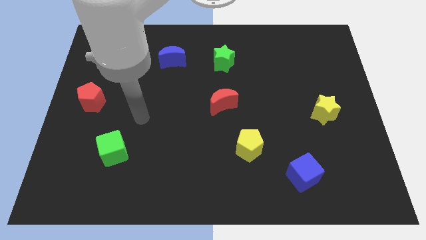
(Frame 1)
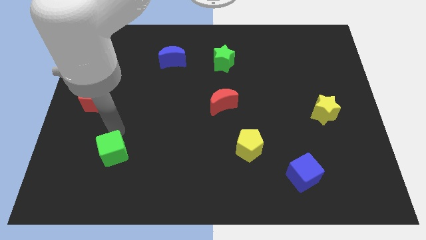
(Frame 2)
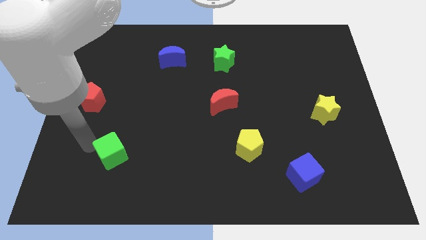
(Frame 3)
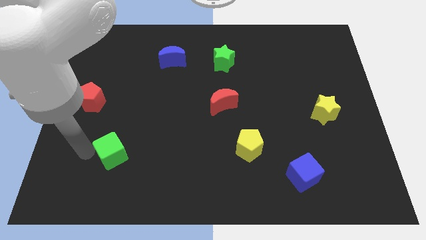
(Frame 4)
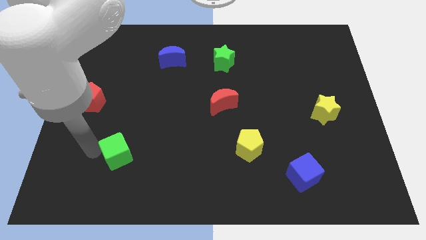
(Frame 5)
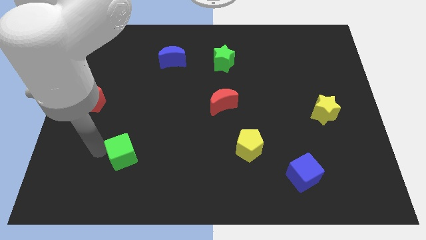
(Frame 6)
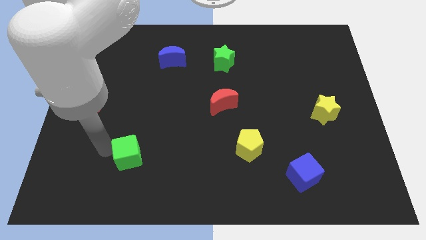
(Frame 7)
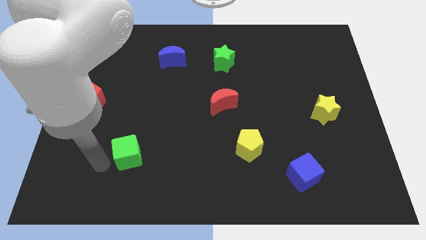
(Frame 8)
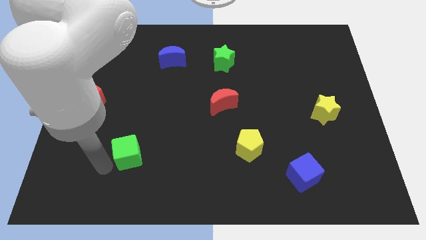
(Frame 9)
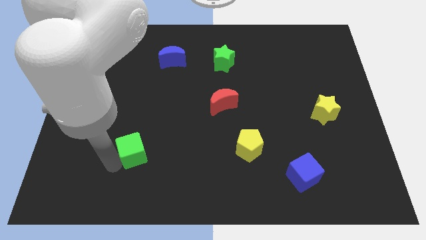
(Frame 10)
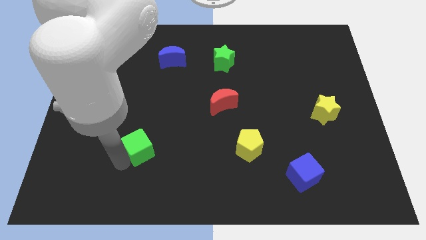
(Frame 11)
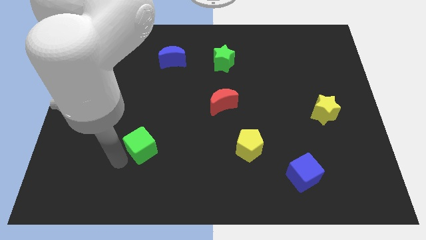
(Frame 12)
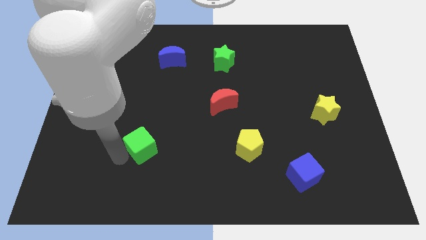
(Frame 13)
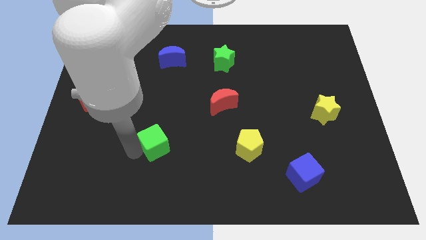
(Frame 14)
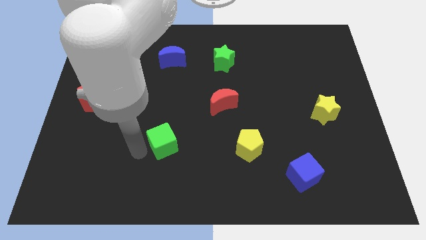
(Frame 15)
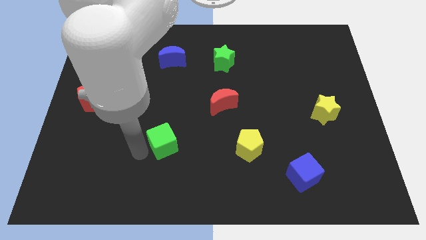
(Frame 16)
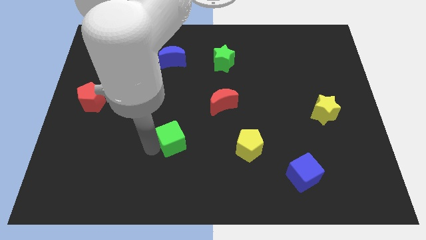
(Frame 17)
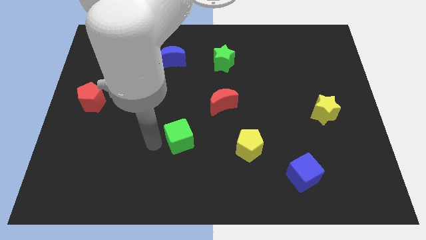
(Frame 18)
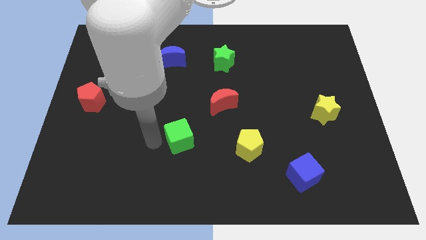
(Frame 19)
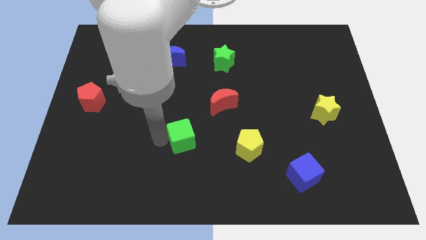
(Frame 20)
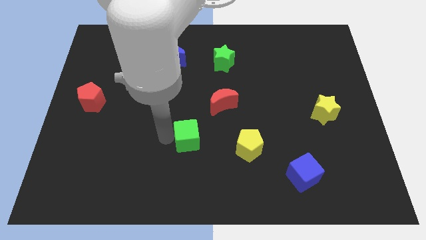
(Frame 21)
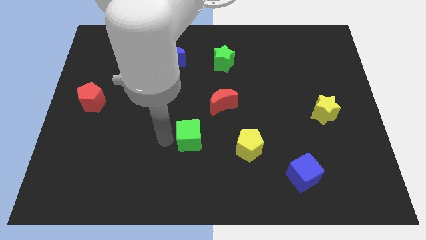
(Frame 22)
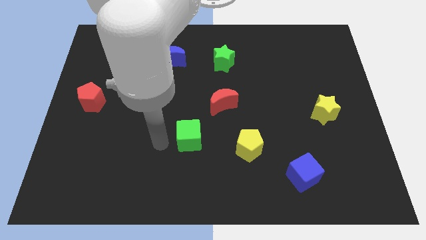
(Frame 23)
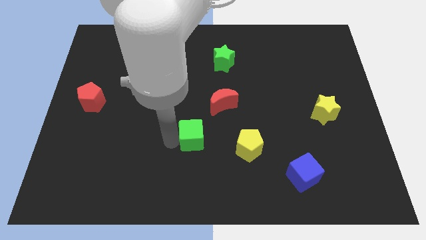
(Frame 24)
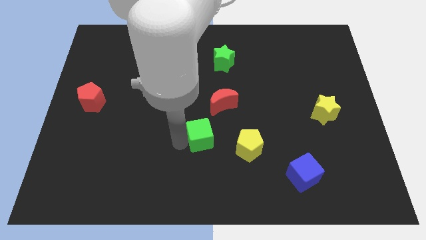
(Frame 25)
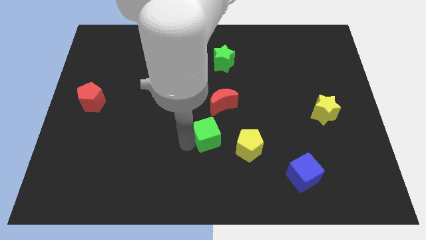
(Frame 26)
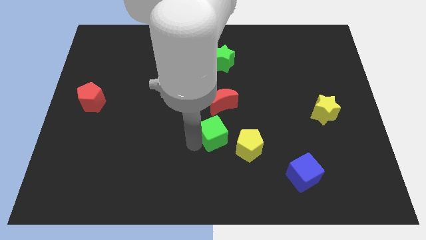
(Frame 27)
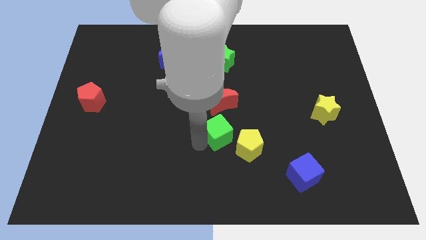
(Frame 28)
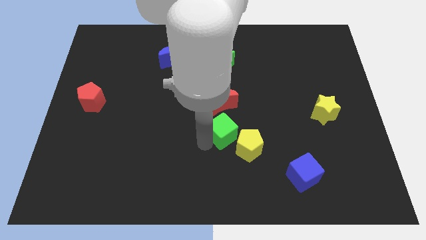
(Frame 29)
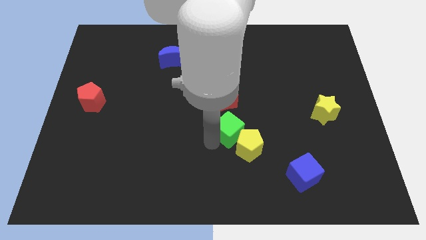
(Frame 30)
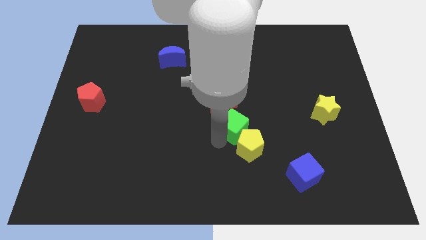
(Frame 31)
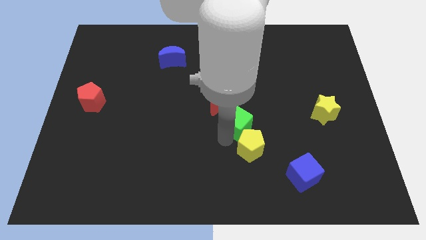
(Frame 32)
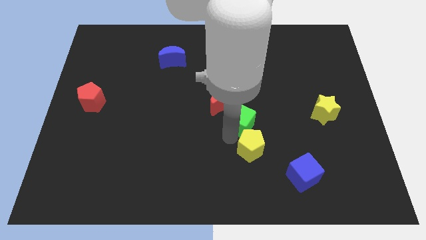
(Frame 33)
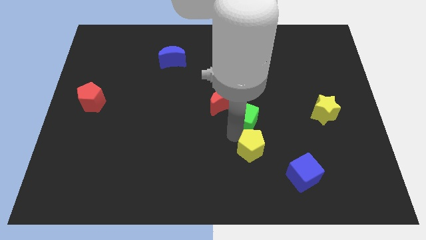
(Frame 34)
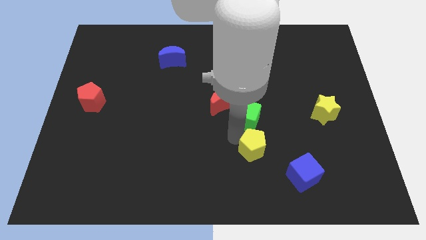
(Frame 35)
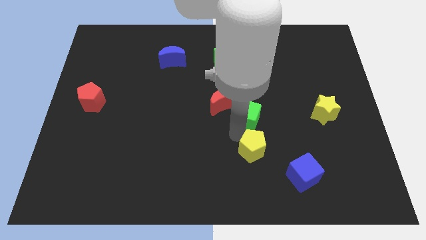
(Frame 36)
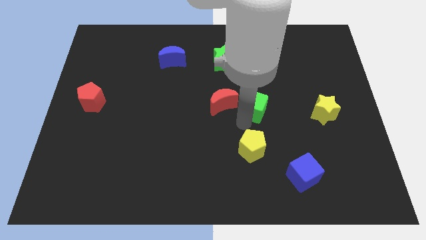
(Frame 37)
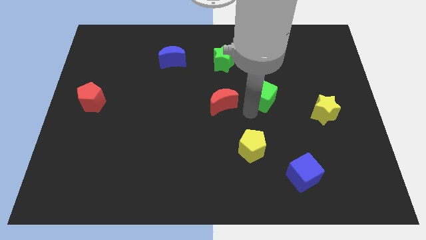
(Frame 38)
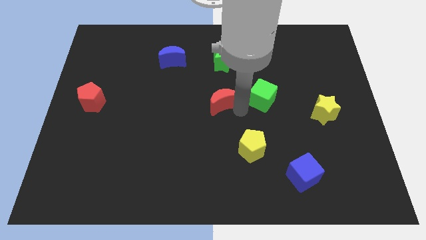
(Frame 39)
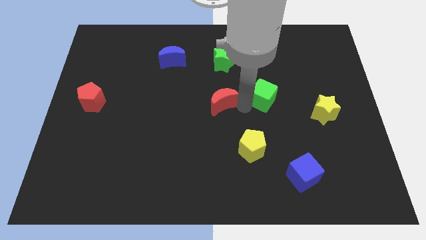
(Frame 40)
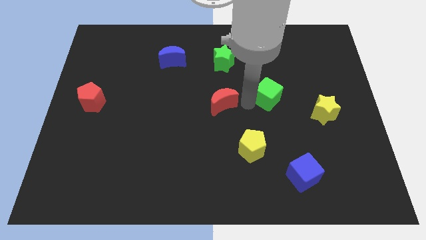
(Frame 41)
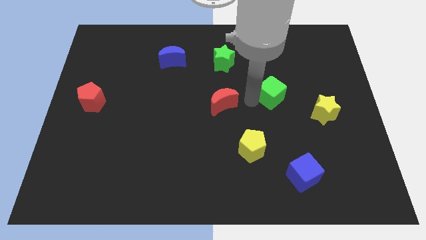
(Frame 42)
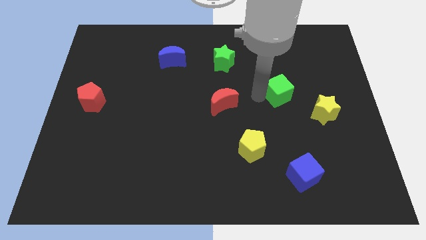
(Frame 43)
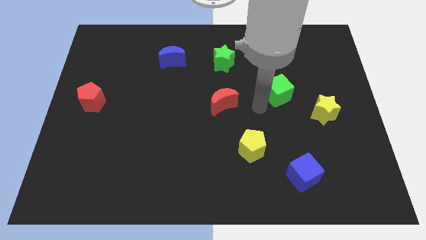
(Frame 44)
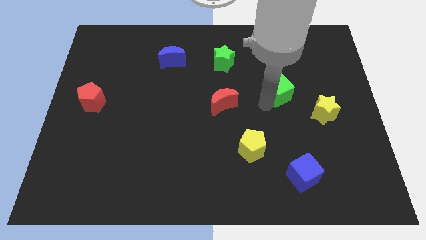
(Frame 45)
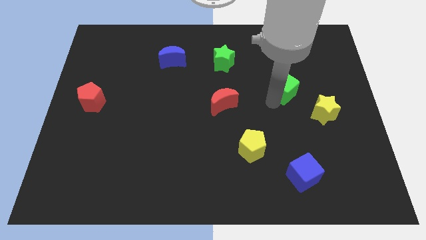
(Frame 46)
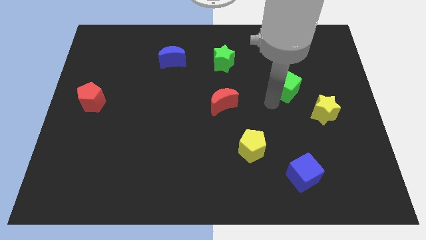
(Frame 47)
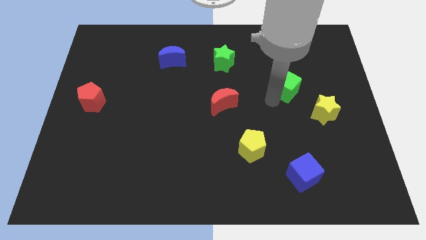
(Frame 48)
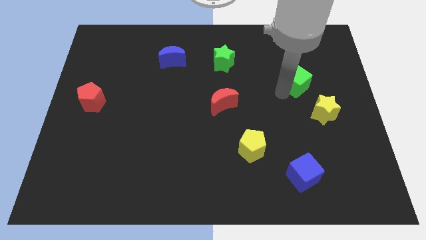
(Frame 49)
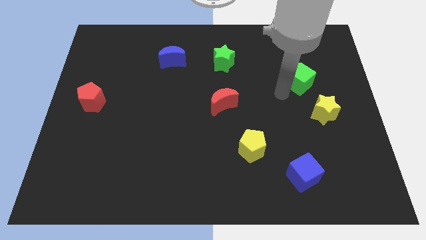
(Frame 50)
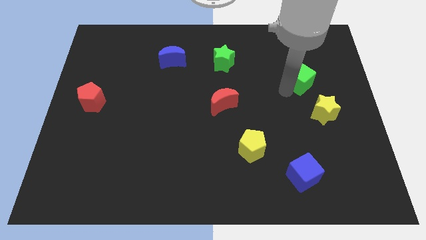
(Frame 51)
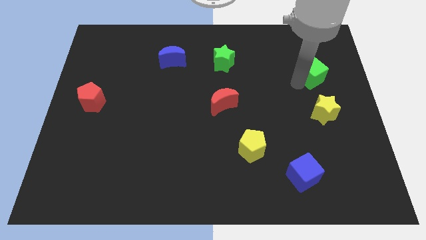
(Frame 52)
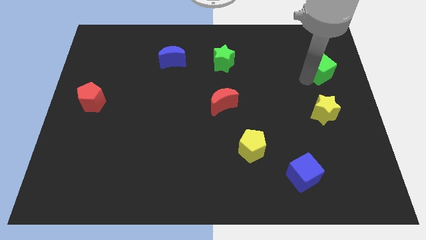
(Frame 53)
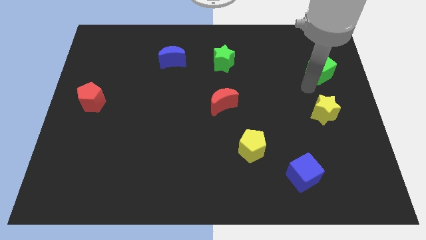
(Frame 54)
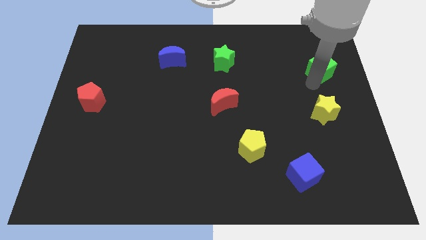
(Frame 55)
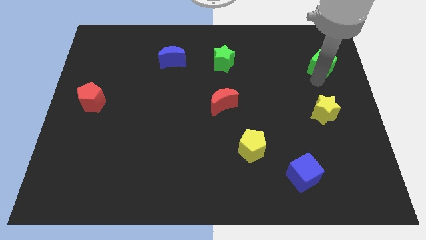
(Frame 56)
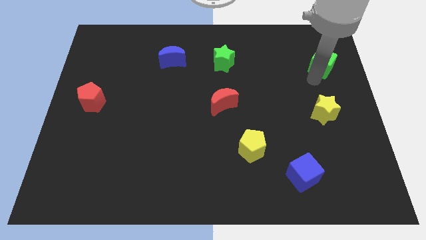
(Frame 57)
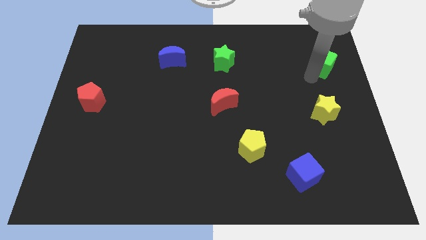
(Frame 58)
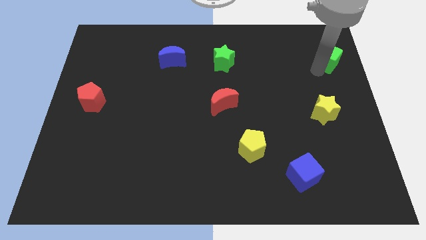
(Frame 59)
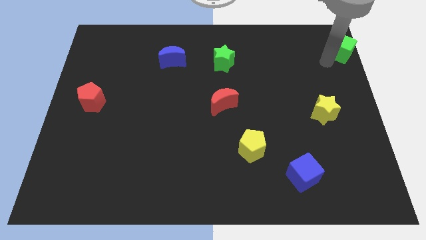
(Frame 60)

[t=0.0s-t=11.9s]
slide the green cube to the top right corner
